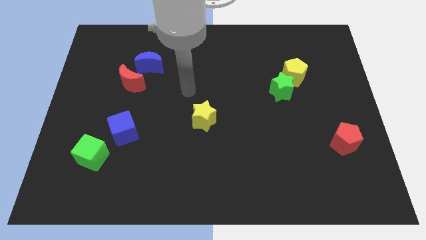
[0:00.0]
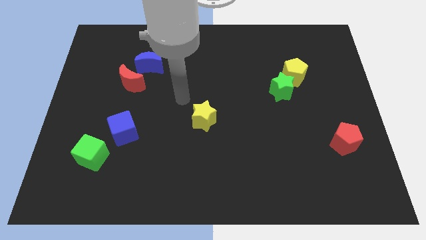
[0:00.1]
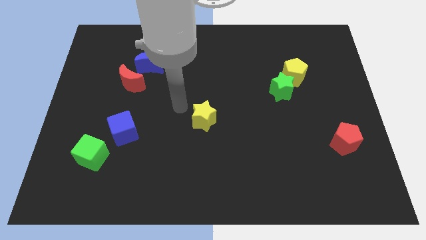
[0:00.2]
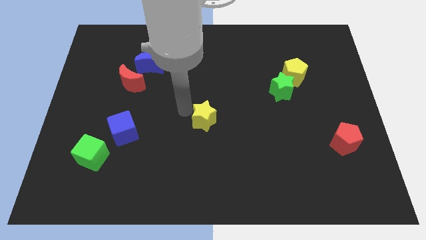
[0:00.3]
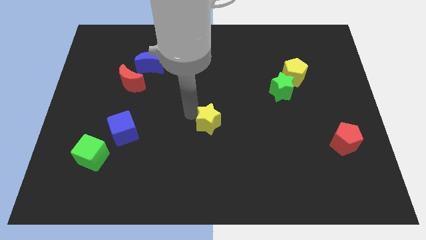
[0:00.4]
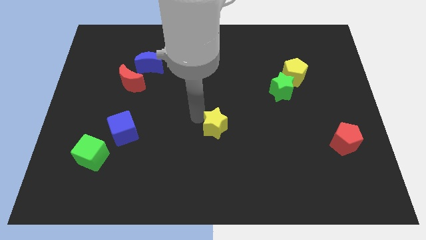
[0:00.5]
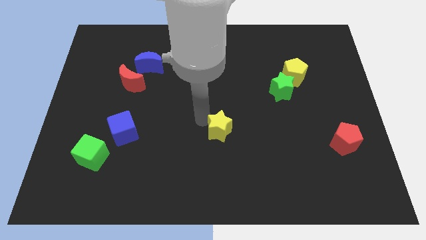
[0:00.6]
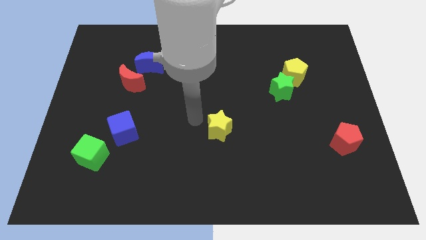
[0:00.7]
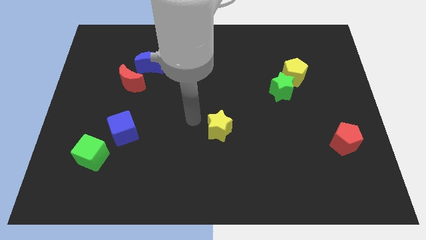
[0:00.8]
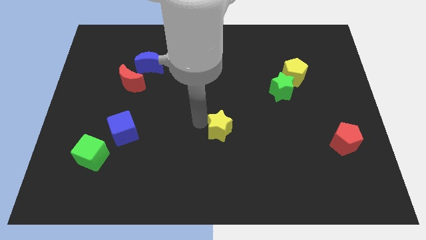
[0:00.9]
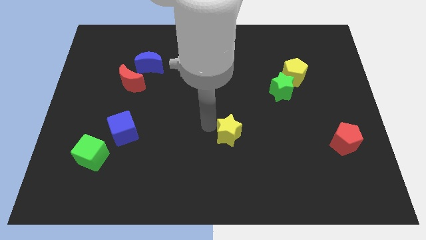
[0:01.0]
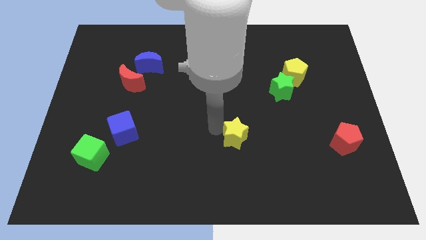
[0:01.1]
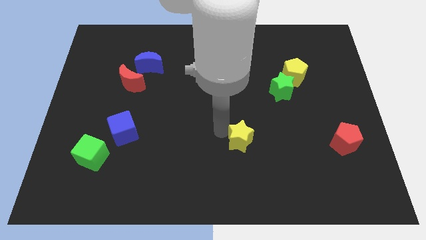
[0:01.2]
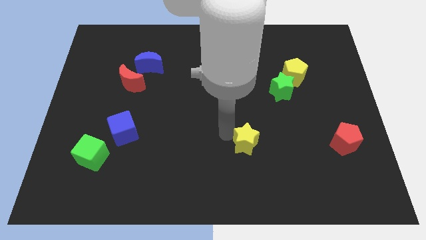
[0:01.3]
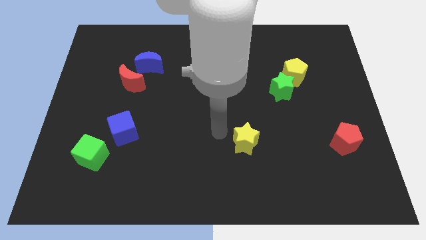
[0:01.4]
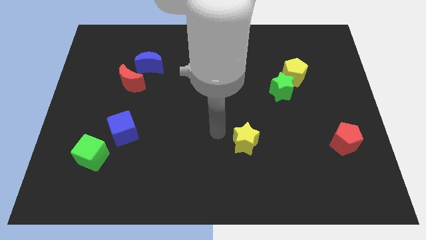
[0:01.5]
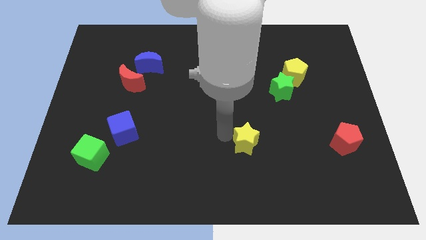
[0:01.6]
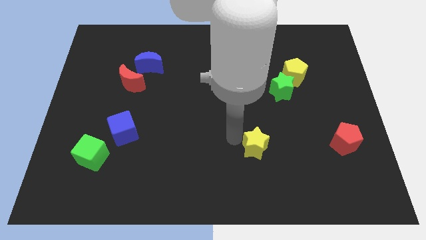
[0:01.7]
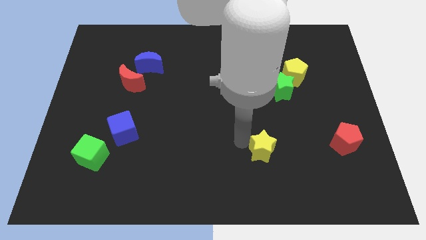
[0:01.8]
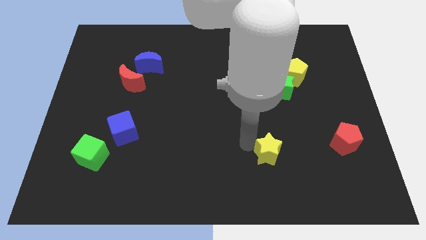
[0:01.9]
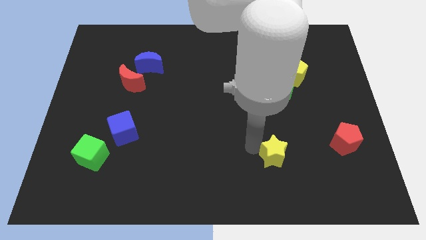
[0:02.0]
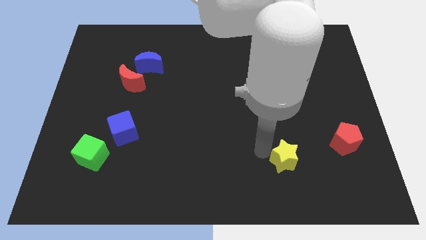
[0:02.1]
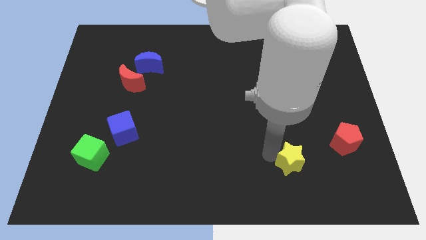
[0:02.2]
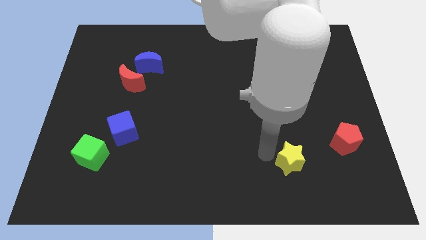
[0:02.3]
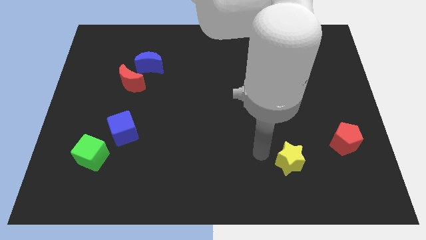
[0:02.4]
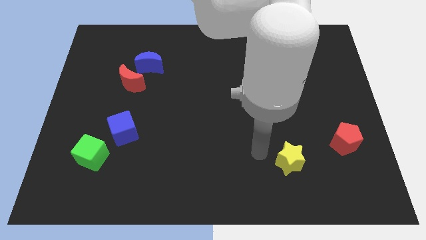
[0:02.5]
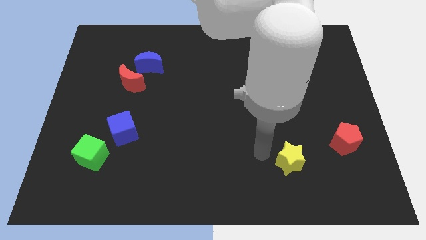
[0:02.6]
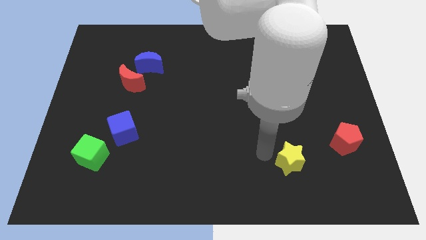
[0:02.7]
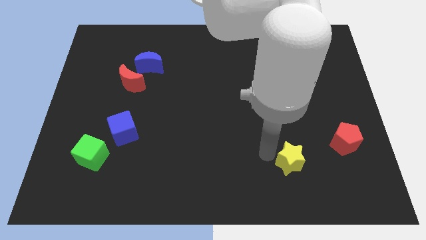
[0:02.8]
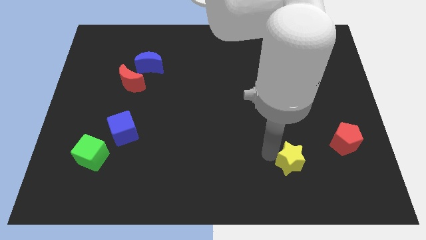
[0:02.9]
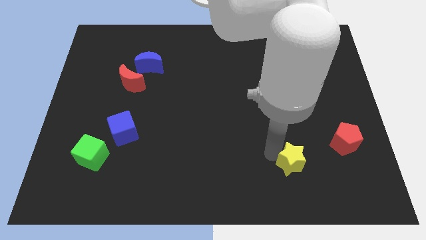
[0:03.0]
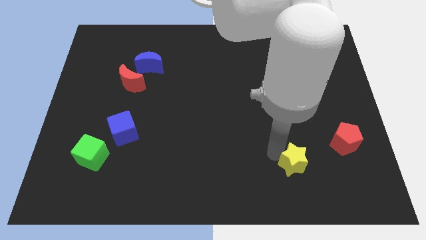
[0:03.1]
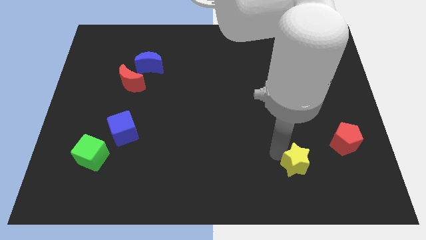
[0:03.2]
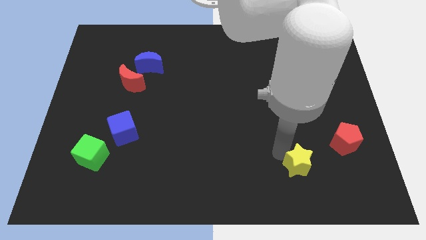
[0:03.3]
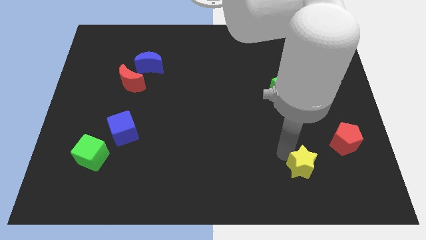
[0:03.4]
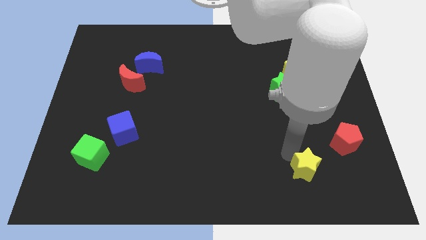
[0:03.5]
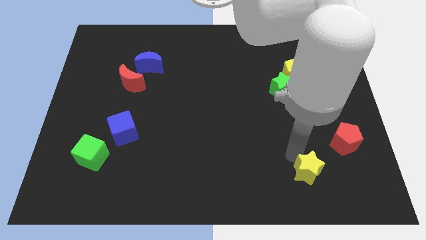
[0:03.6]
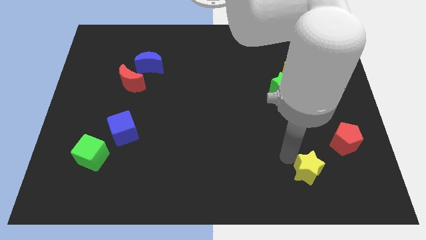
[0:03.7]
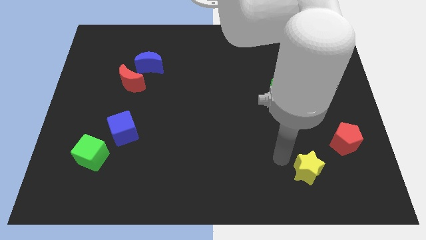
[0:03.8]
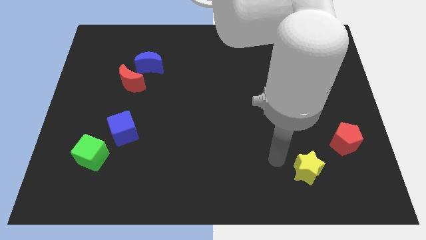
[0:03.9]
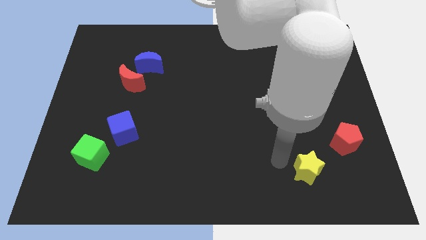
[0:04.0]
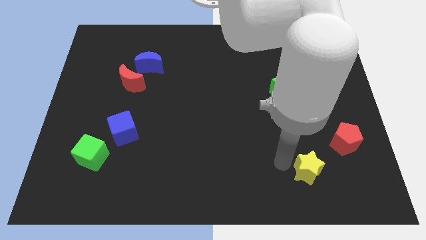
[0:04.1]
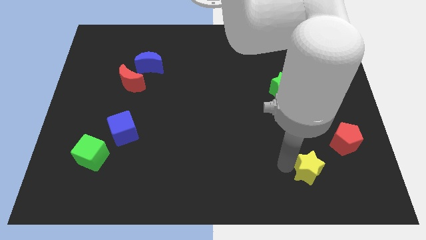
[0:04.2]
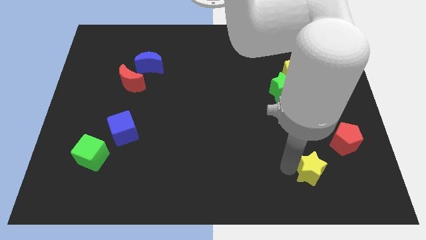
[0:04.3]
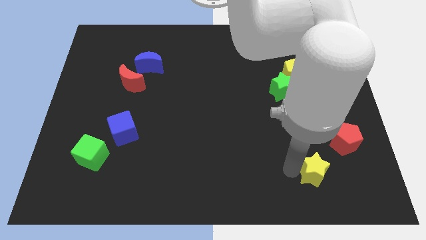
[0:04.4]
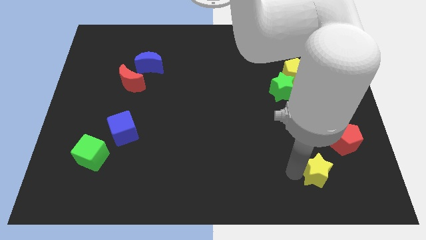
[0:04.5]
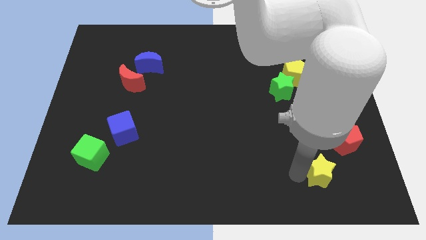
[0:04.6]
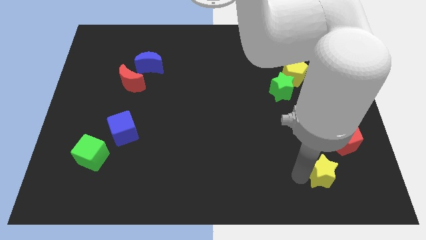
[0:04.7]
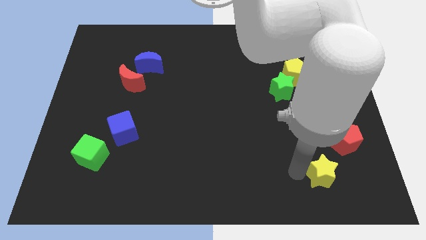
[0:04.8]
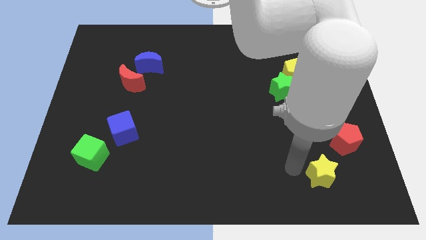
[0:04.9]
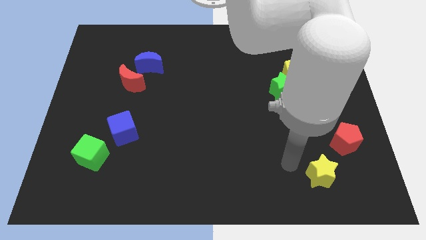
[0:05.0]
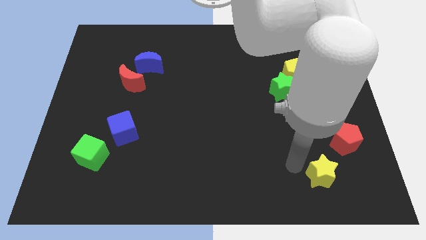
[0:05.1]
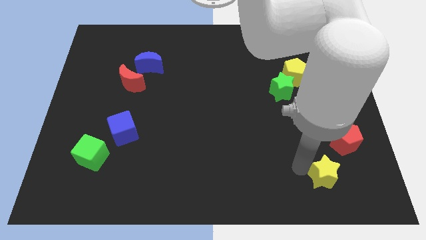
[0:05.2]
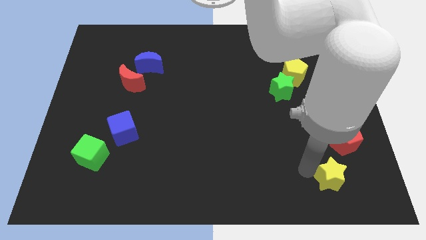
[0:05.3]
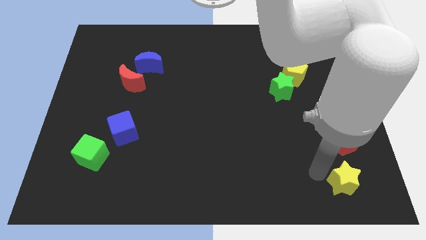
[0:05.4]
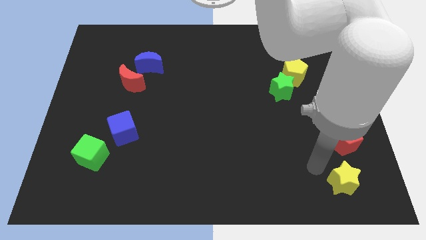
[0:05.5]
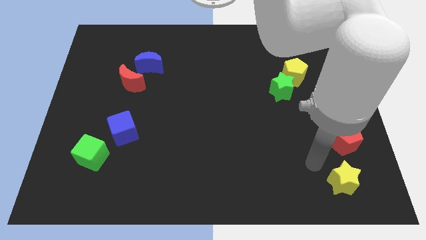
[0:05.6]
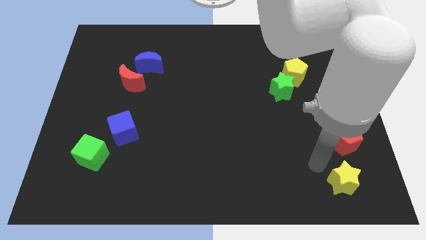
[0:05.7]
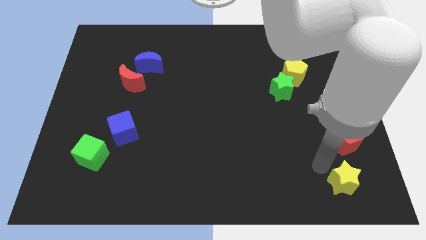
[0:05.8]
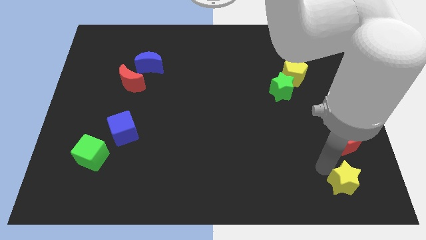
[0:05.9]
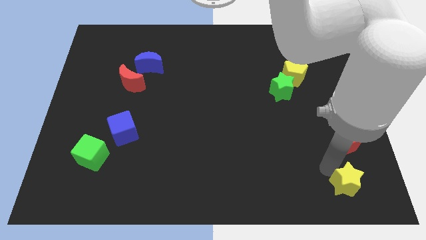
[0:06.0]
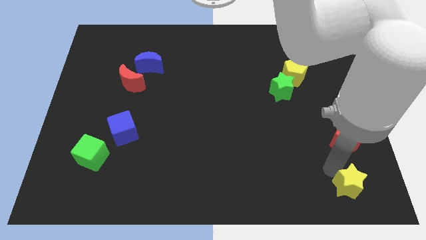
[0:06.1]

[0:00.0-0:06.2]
put the yellow star to the lower right corner
